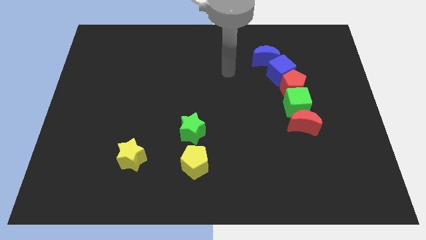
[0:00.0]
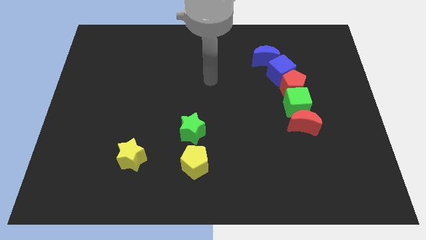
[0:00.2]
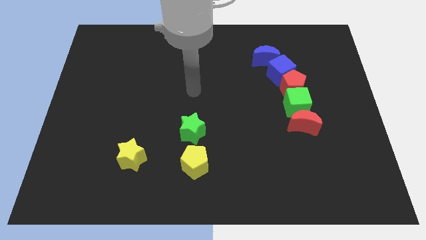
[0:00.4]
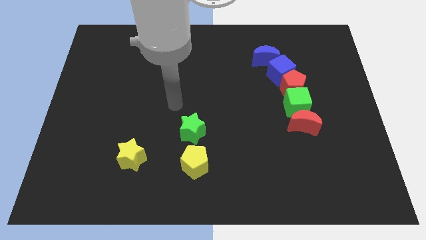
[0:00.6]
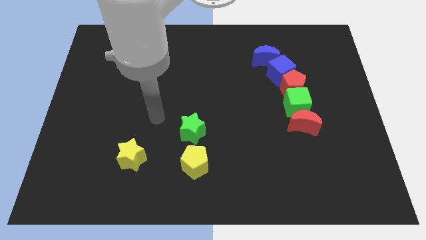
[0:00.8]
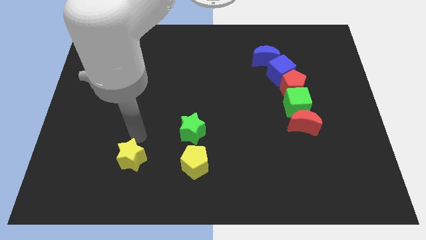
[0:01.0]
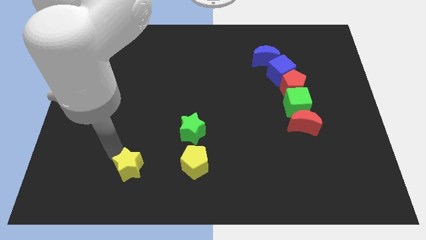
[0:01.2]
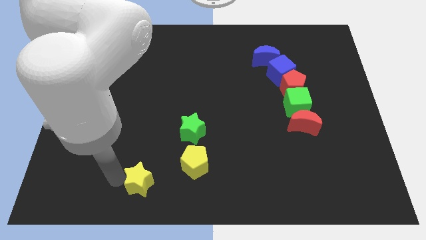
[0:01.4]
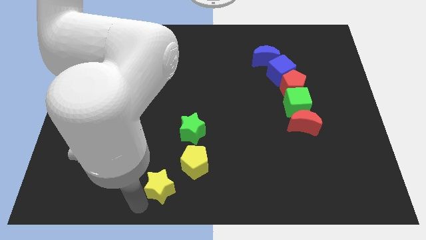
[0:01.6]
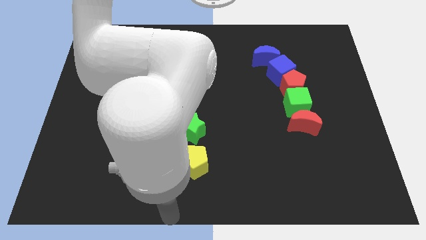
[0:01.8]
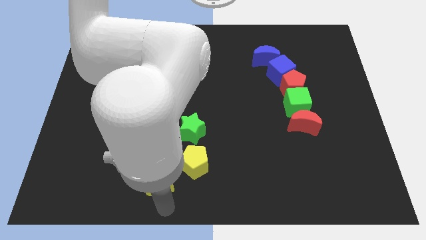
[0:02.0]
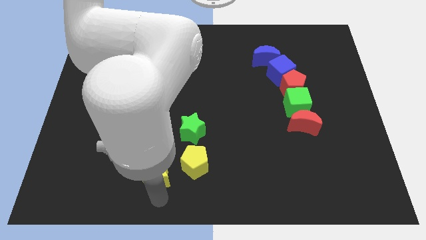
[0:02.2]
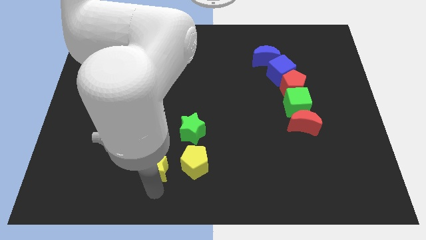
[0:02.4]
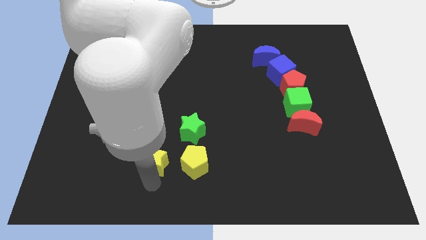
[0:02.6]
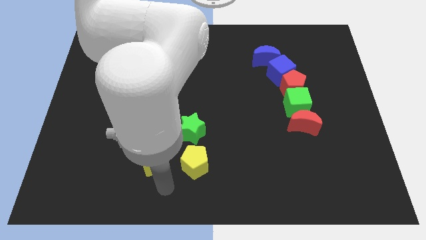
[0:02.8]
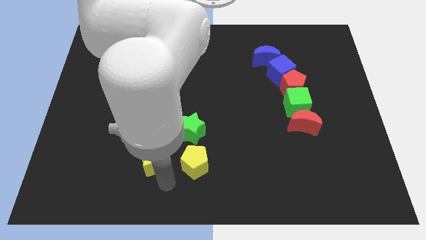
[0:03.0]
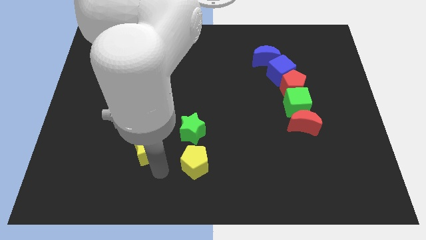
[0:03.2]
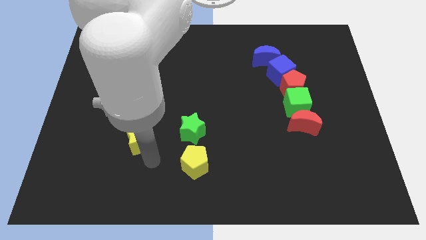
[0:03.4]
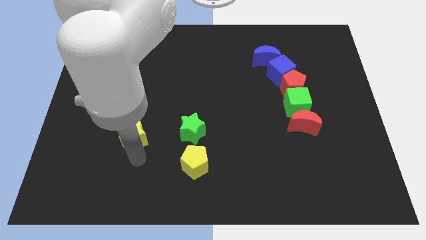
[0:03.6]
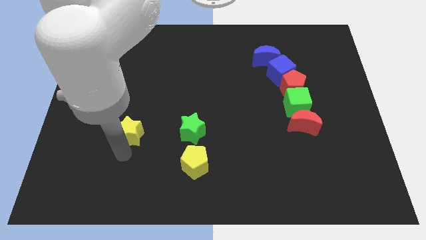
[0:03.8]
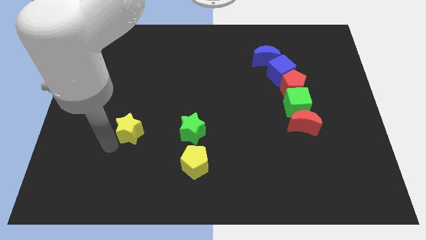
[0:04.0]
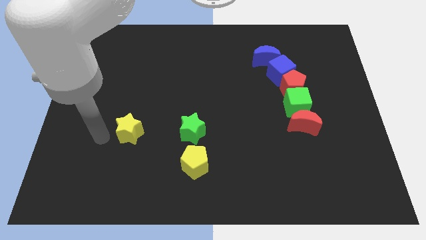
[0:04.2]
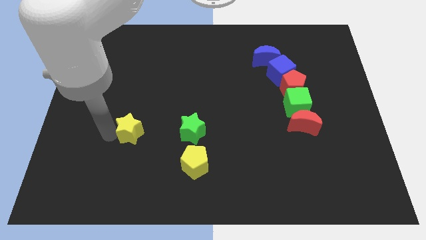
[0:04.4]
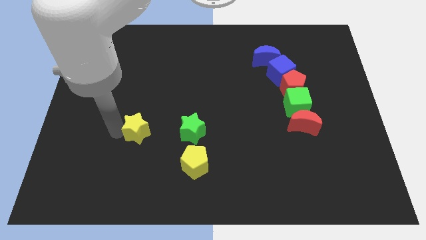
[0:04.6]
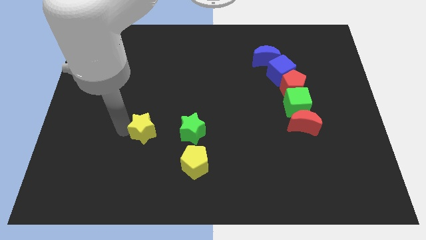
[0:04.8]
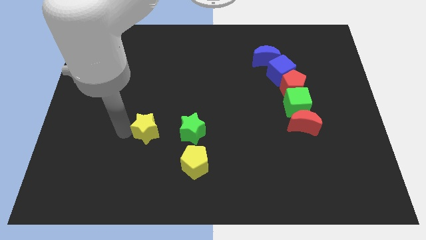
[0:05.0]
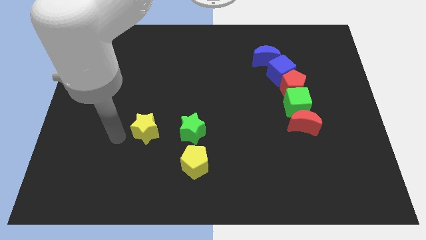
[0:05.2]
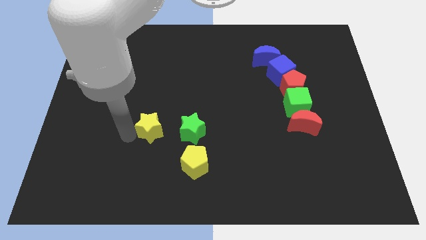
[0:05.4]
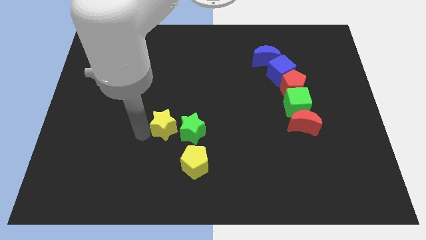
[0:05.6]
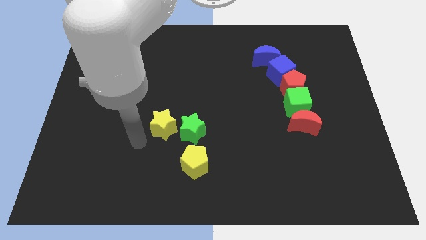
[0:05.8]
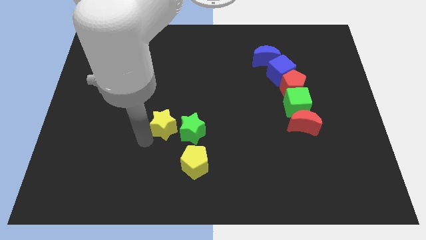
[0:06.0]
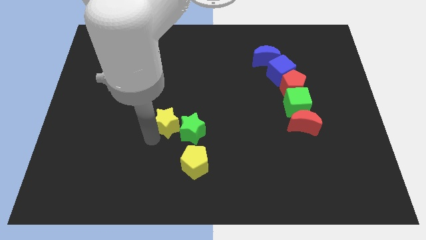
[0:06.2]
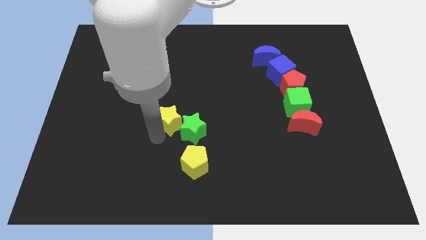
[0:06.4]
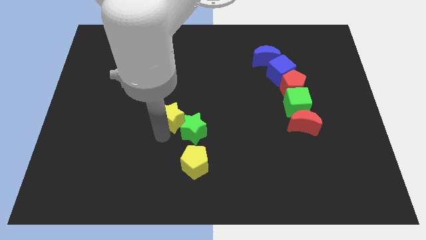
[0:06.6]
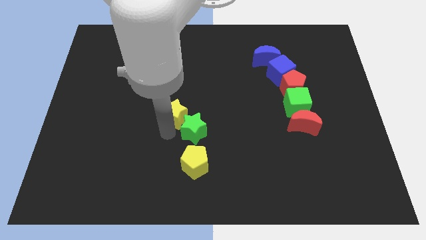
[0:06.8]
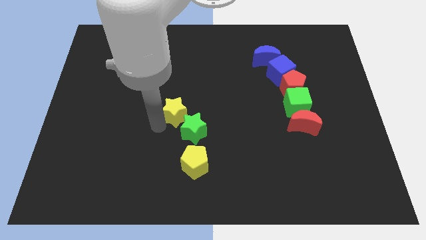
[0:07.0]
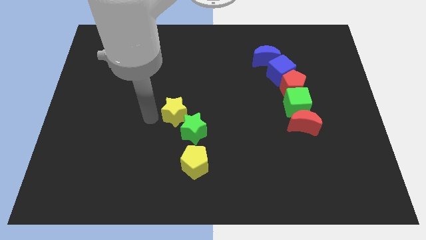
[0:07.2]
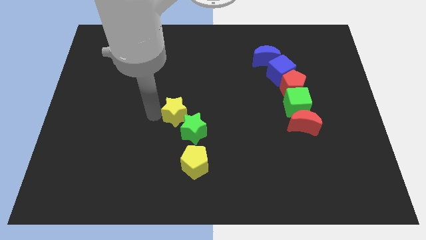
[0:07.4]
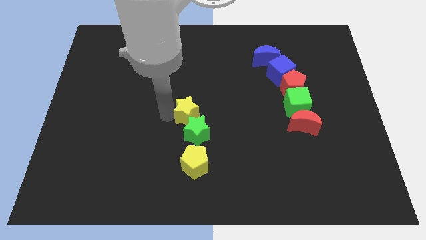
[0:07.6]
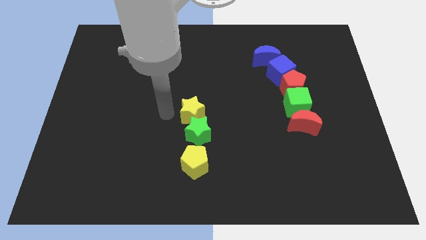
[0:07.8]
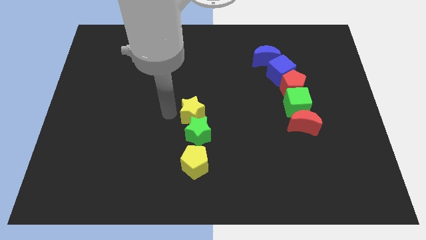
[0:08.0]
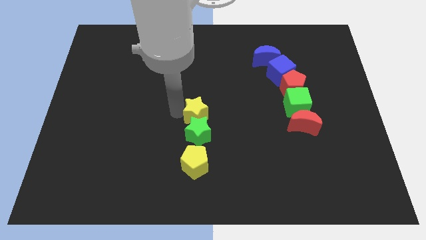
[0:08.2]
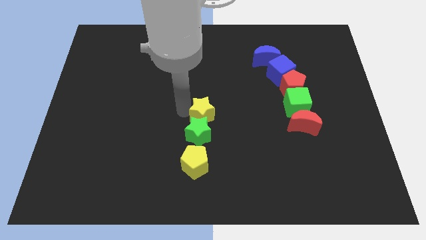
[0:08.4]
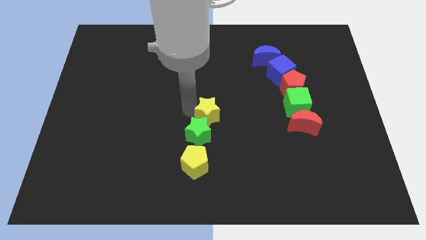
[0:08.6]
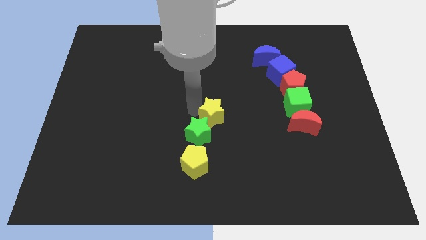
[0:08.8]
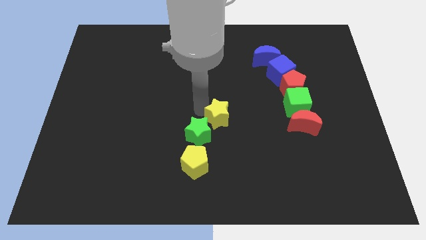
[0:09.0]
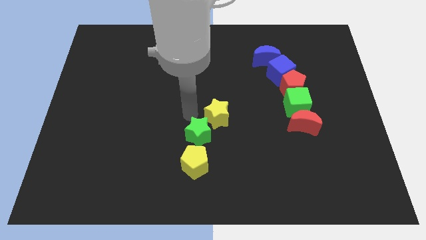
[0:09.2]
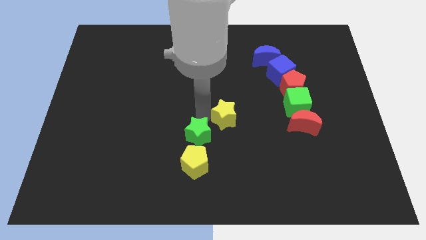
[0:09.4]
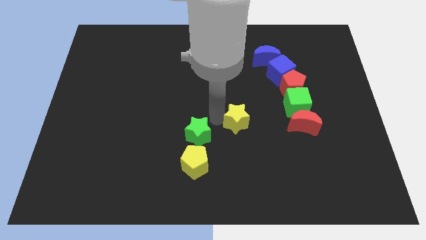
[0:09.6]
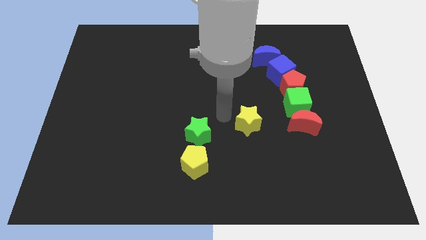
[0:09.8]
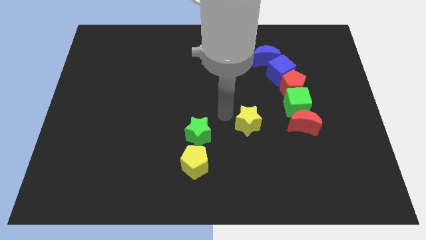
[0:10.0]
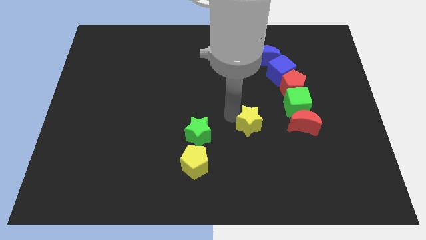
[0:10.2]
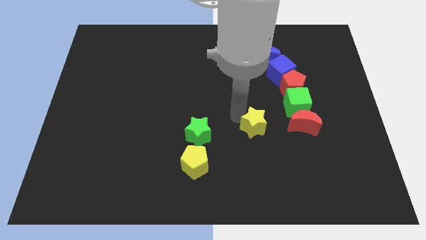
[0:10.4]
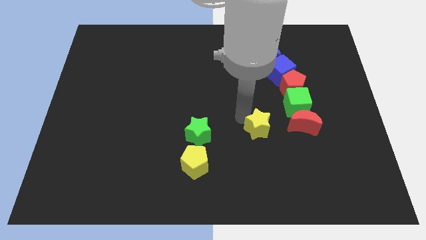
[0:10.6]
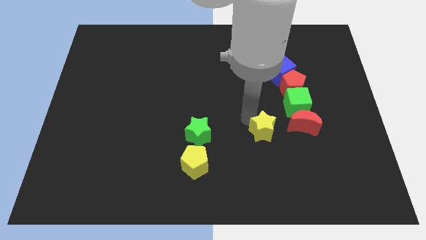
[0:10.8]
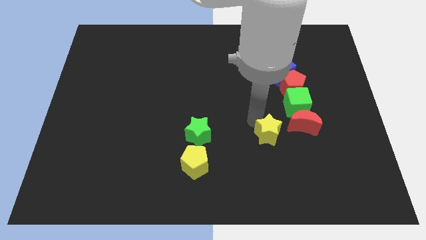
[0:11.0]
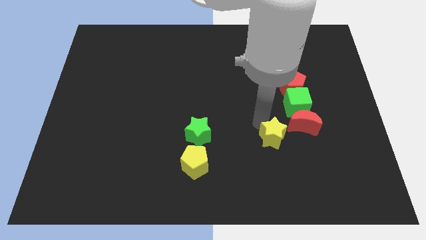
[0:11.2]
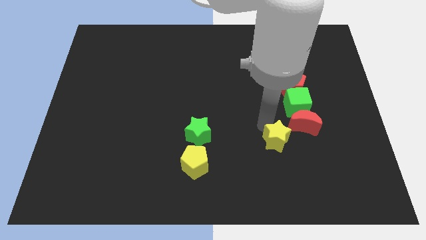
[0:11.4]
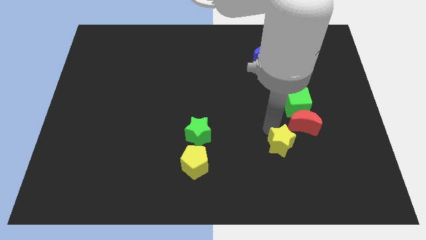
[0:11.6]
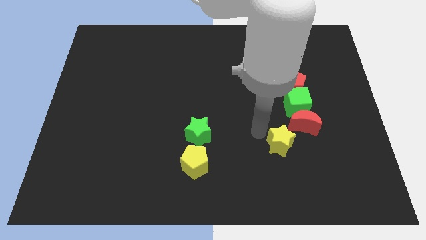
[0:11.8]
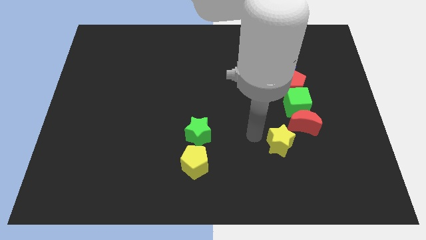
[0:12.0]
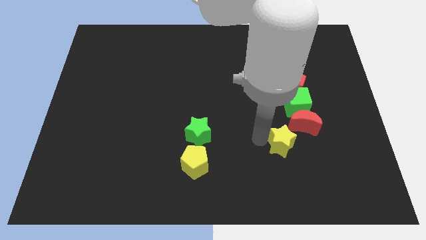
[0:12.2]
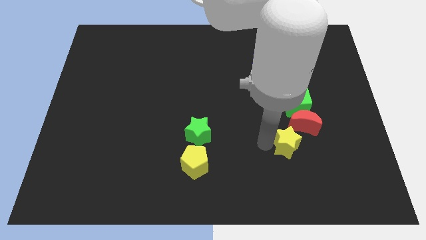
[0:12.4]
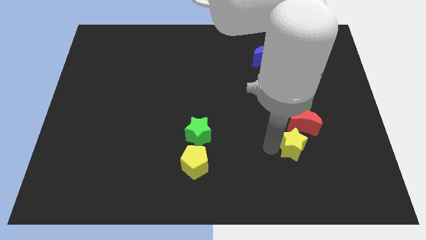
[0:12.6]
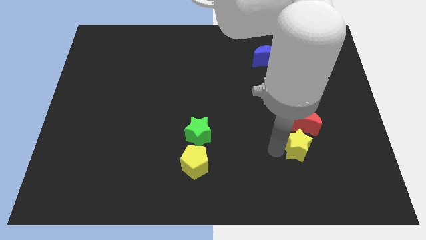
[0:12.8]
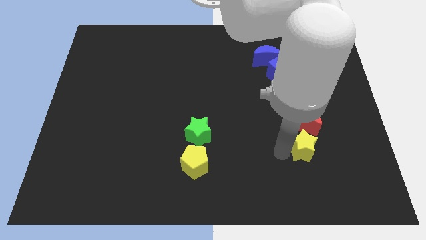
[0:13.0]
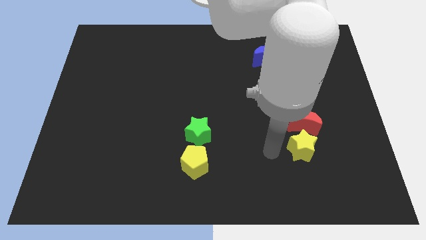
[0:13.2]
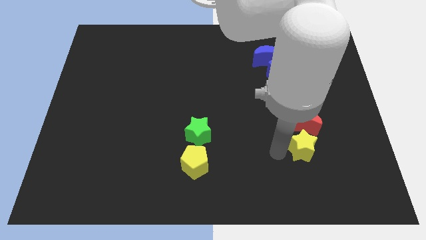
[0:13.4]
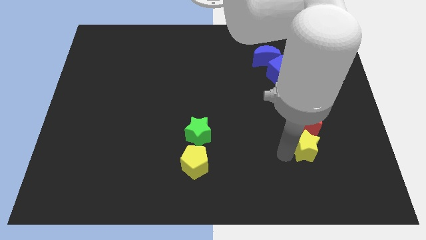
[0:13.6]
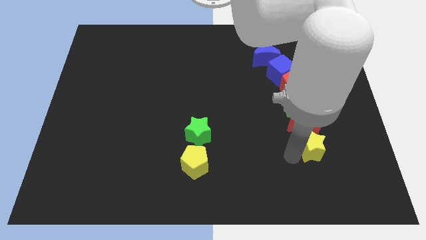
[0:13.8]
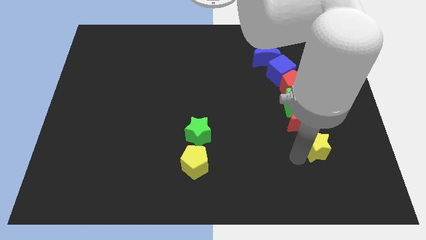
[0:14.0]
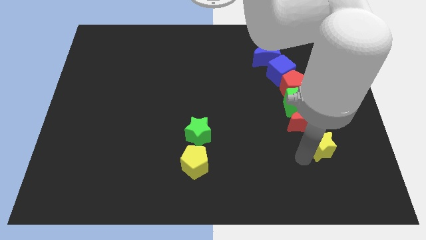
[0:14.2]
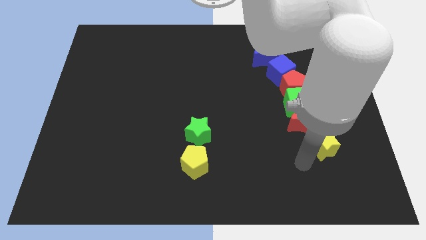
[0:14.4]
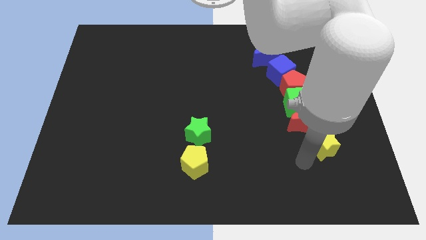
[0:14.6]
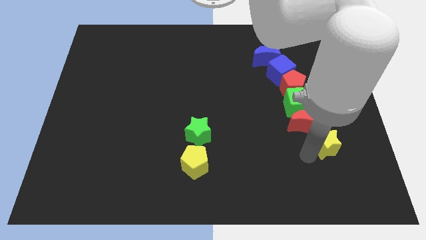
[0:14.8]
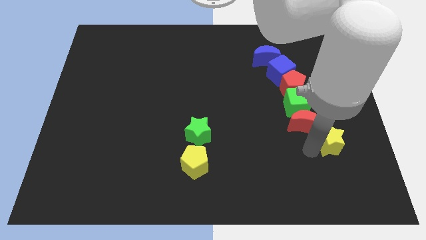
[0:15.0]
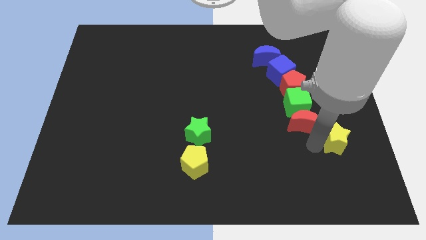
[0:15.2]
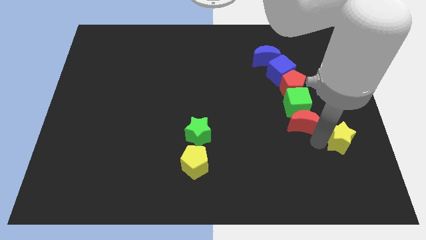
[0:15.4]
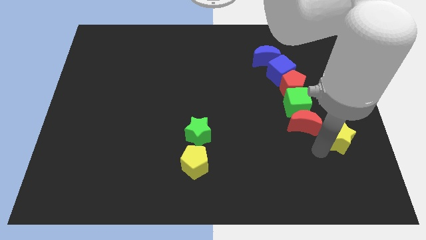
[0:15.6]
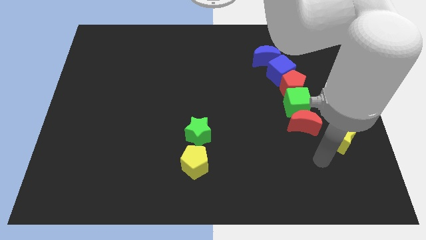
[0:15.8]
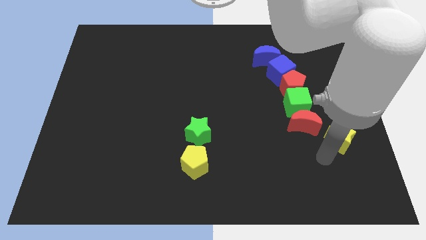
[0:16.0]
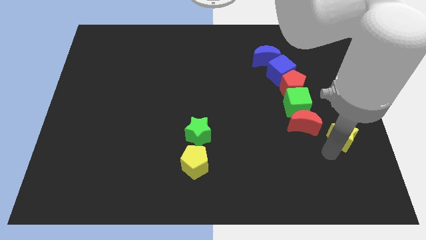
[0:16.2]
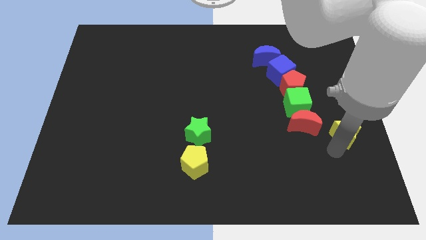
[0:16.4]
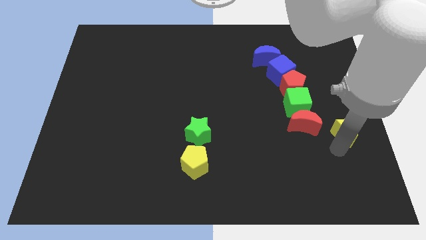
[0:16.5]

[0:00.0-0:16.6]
push the yellow star to the right side
